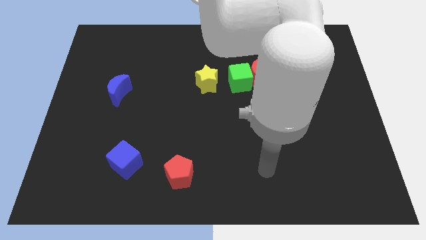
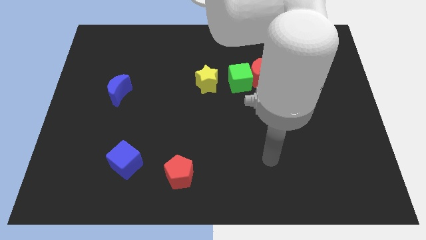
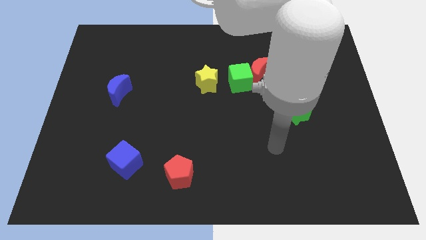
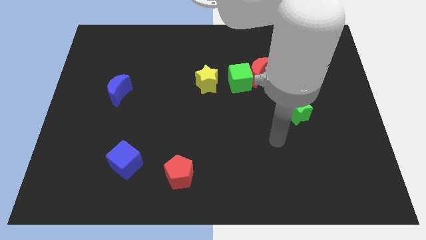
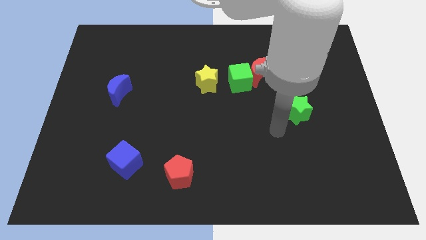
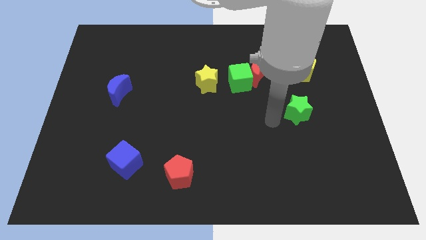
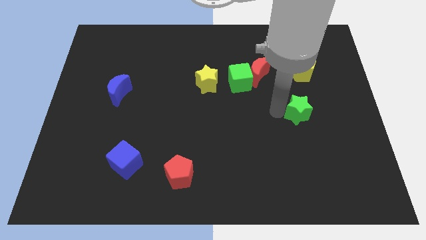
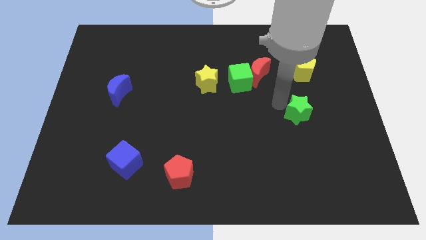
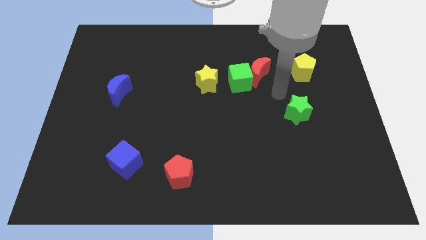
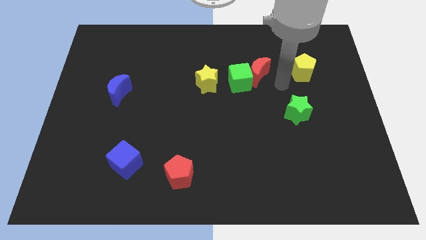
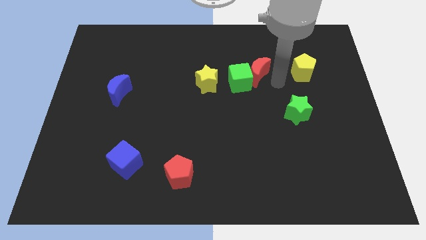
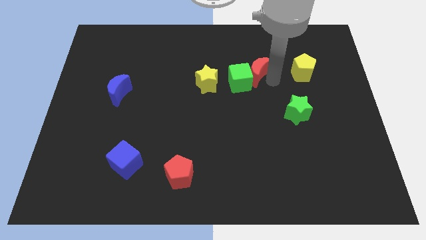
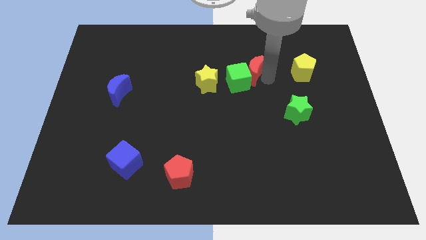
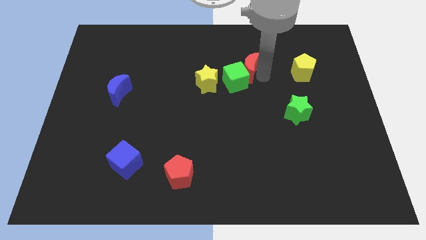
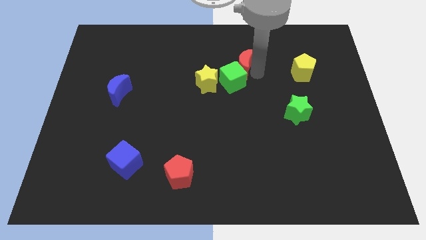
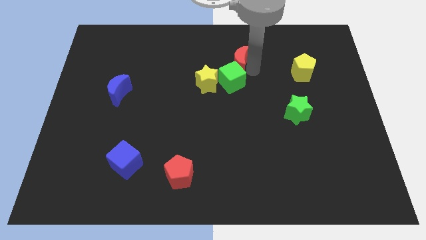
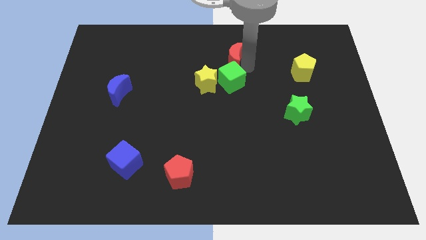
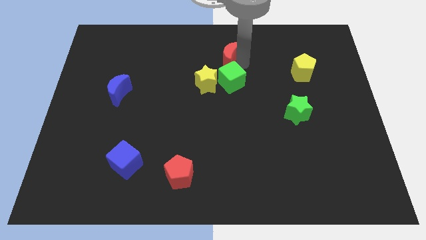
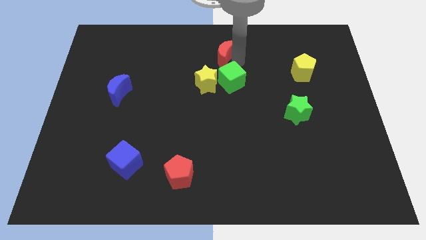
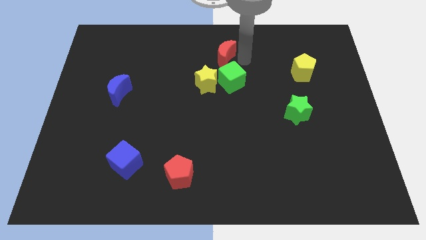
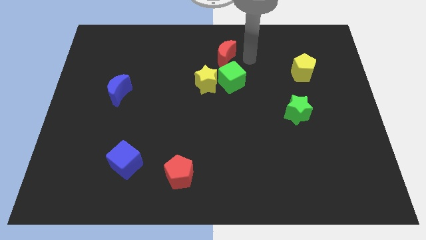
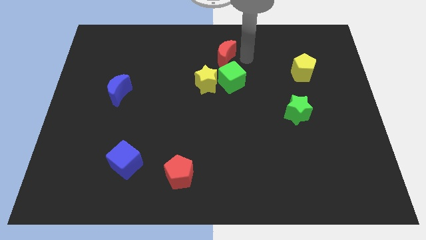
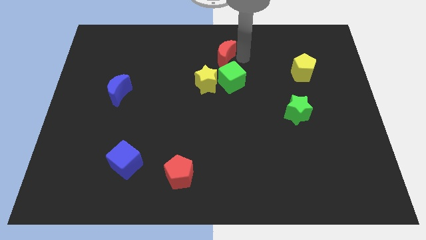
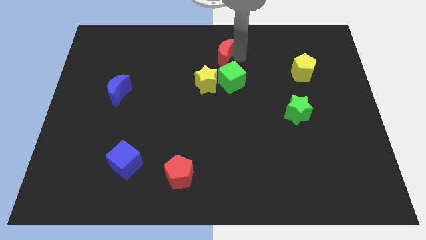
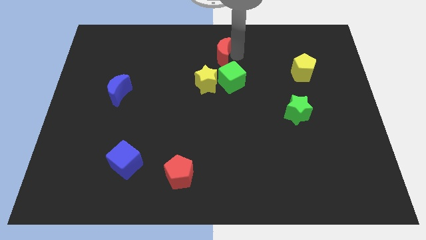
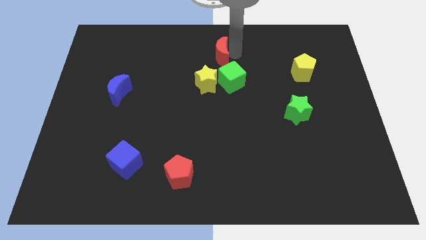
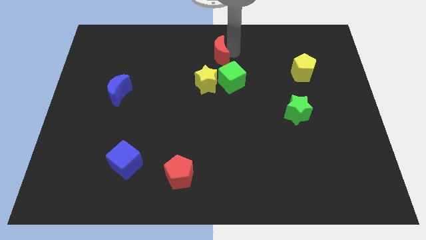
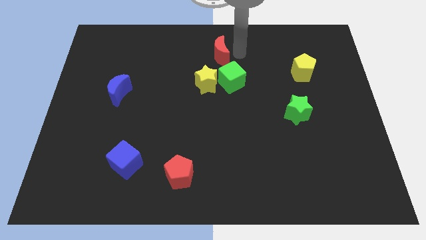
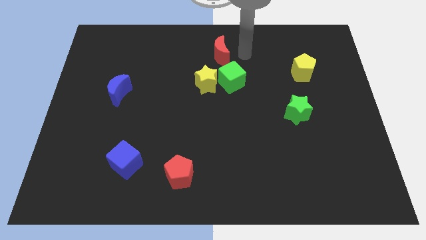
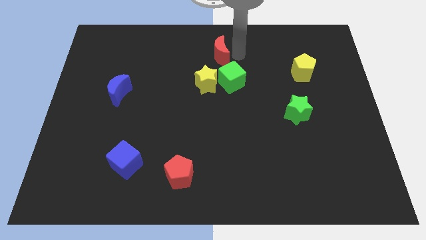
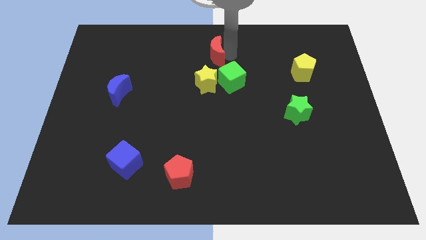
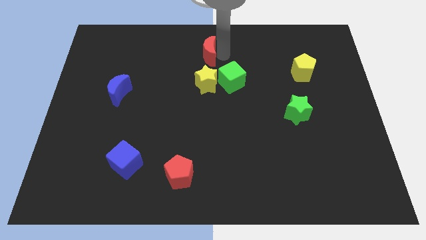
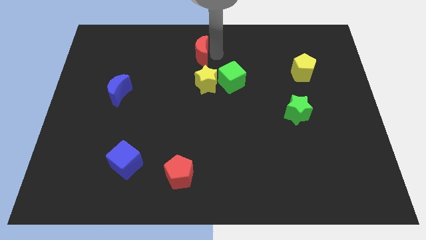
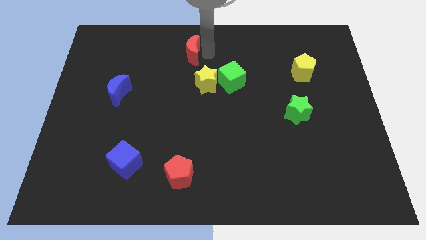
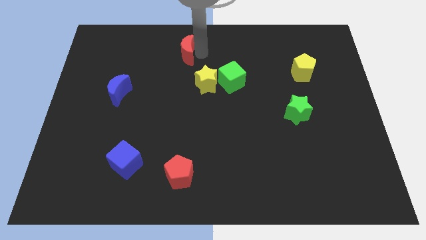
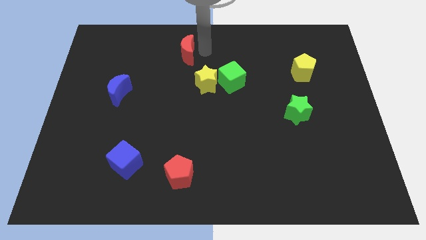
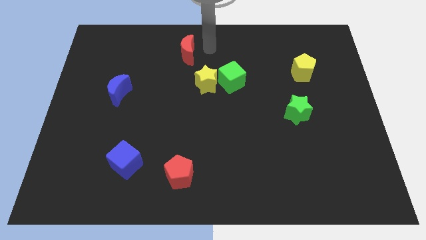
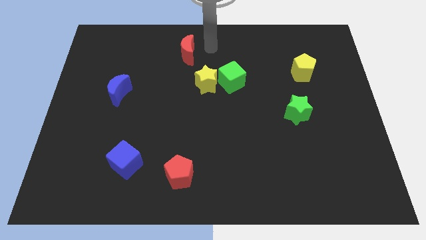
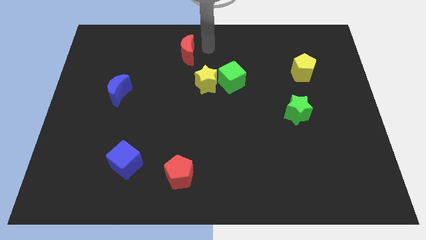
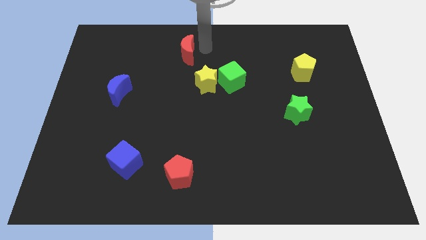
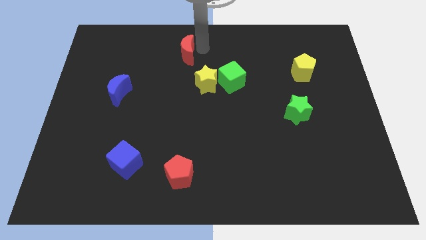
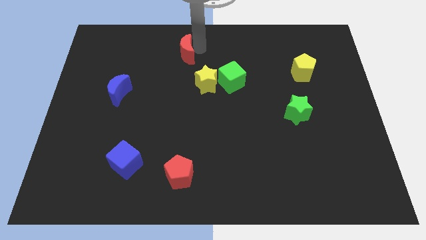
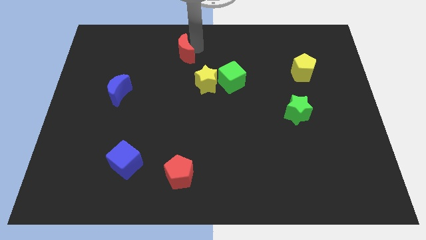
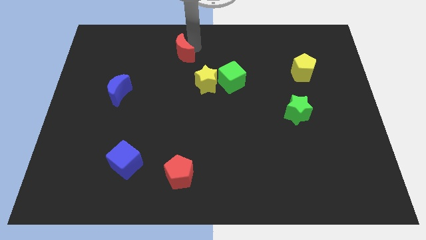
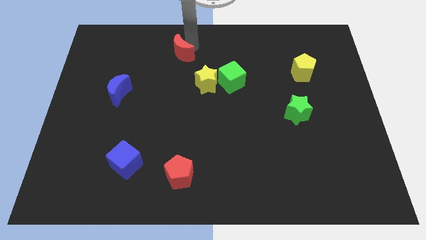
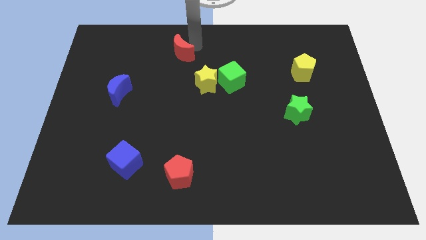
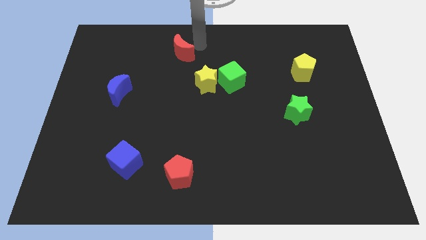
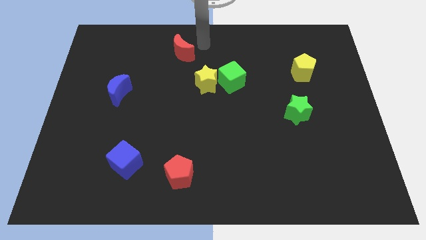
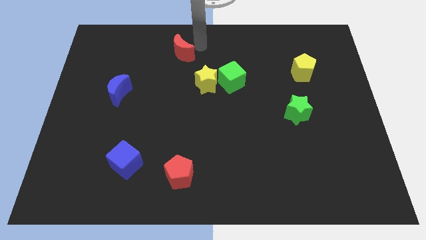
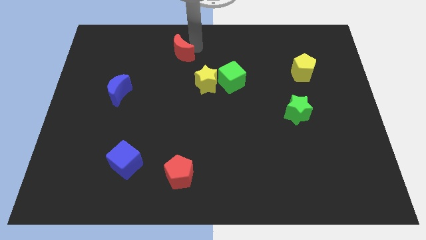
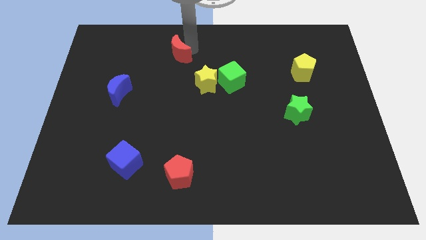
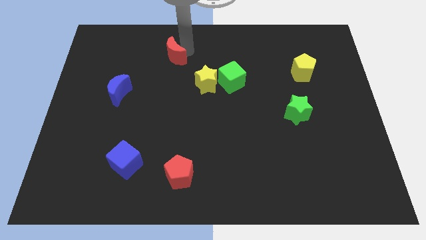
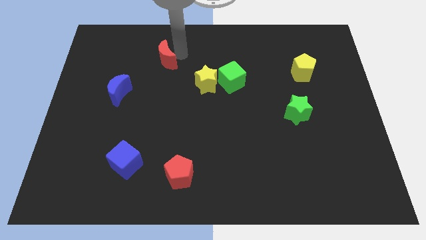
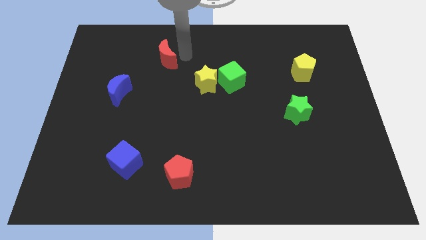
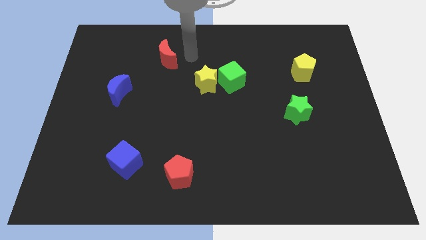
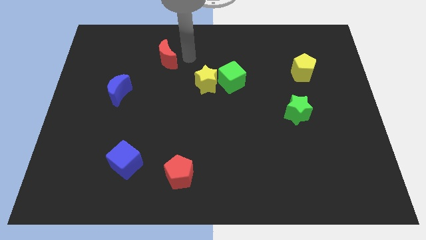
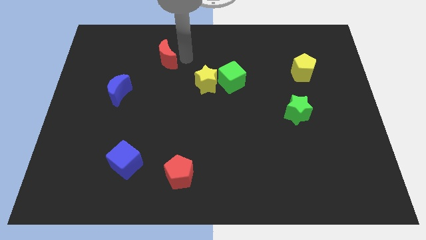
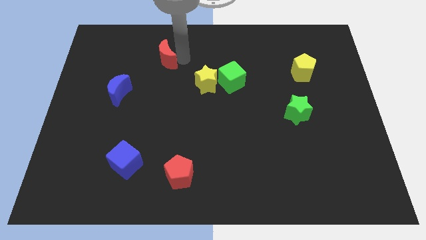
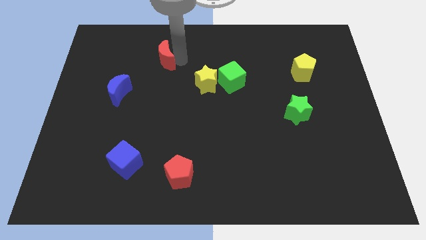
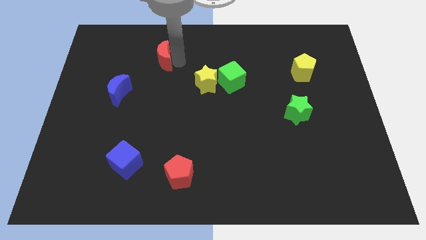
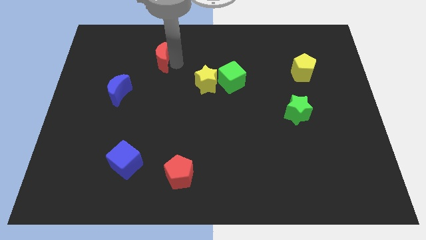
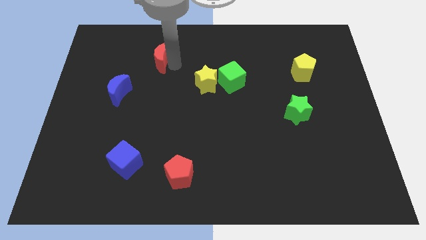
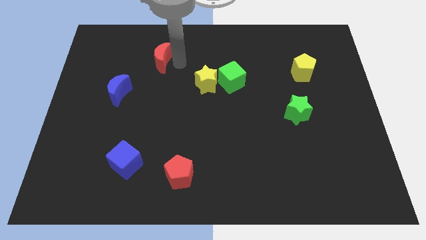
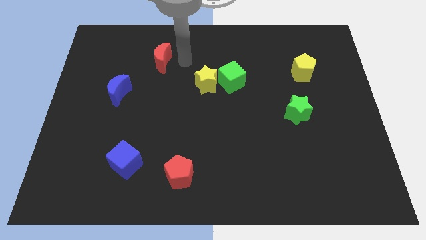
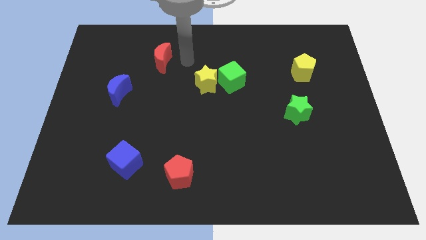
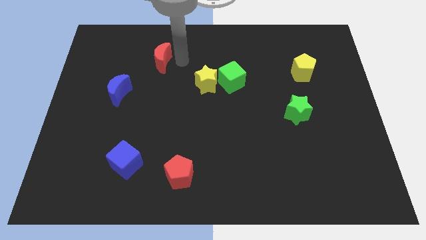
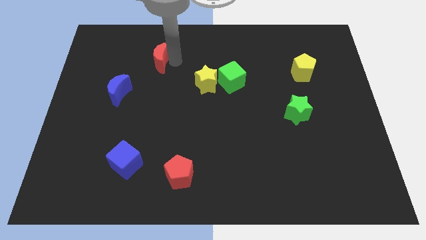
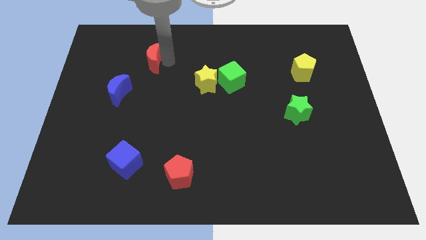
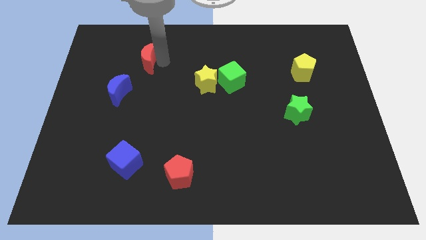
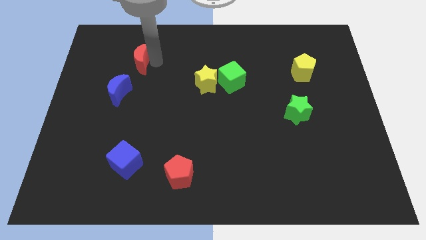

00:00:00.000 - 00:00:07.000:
move the red moon to the top side of the blue moon
